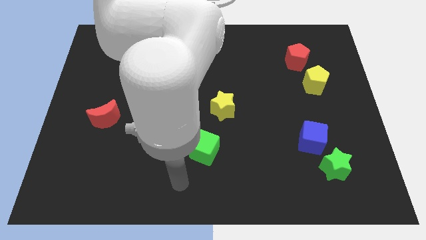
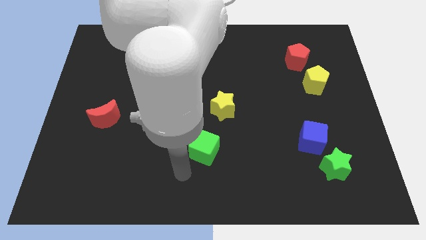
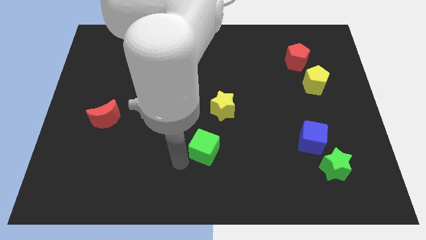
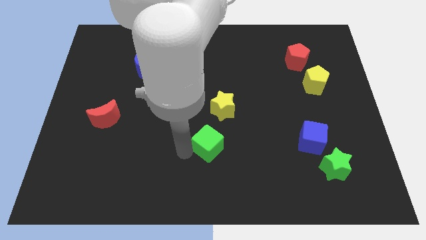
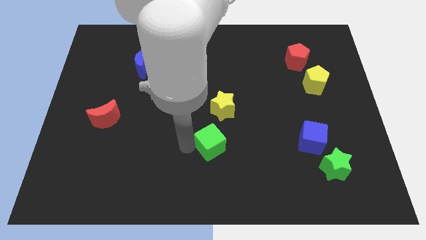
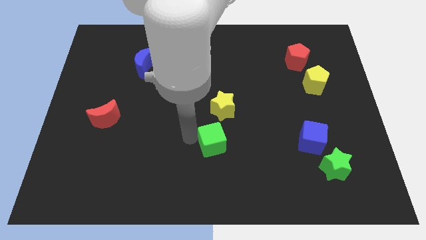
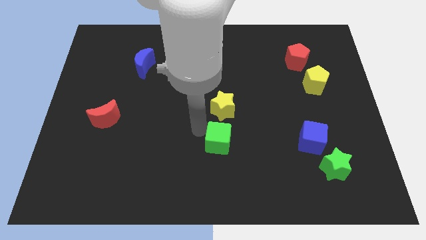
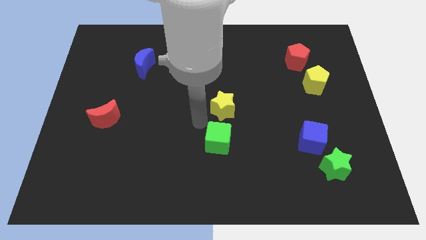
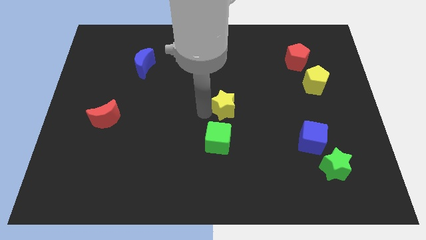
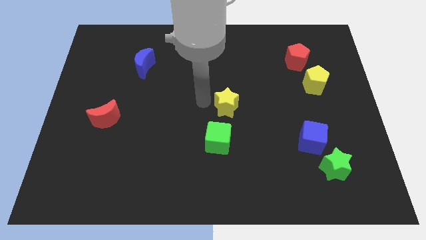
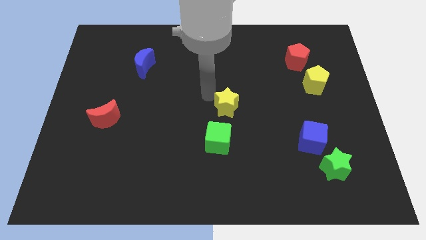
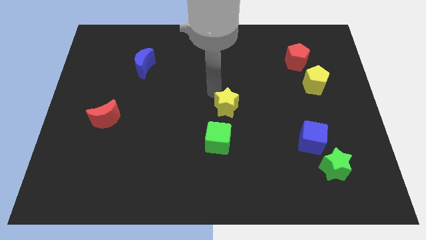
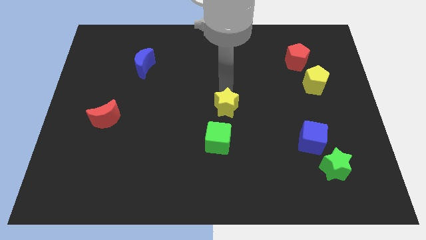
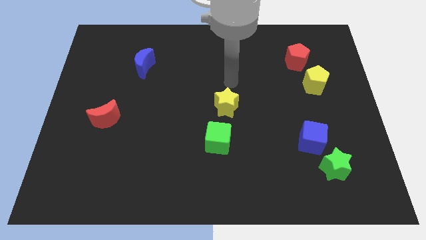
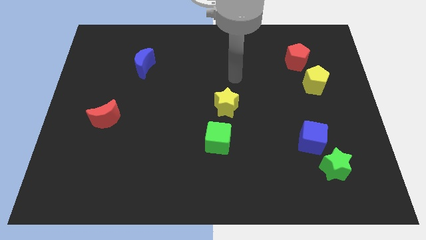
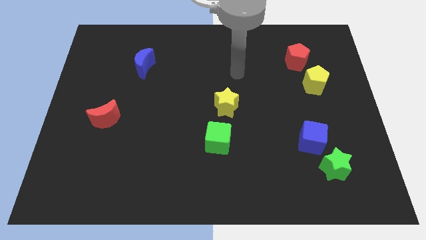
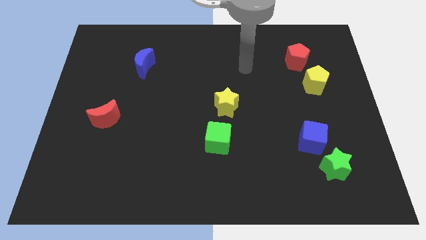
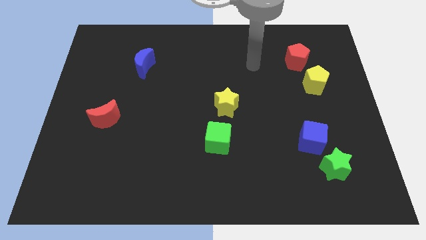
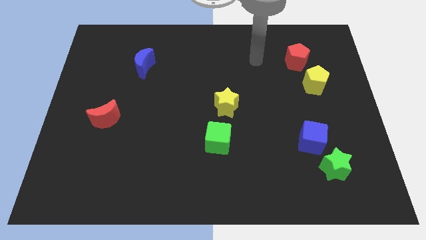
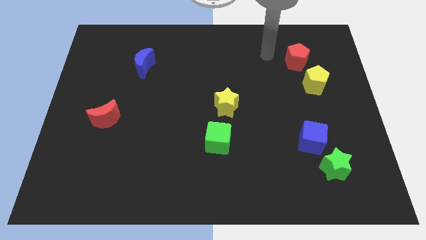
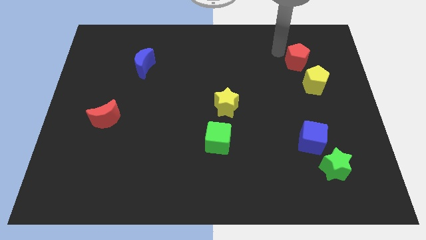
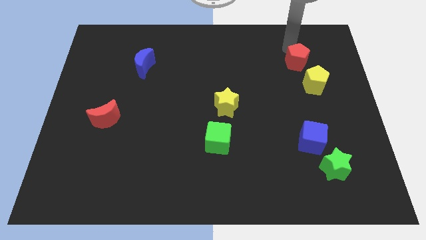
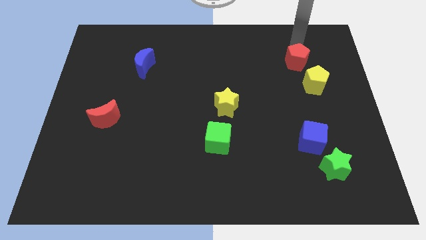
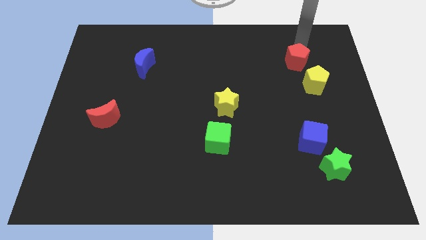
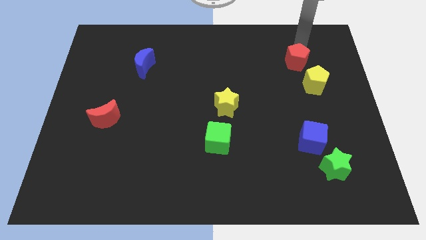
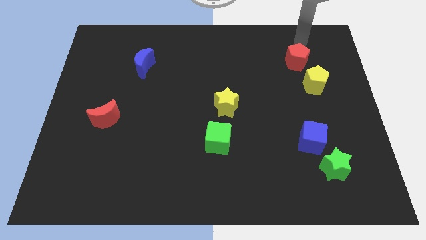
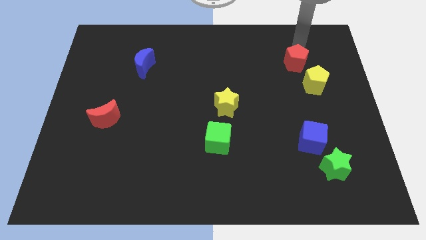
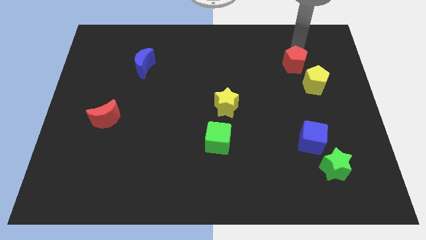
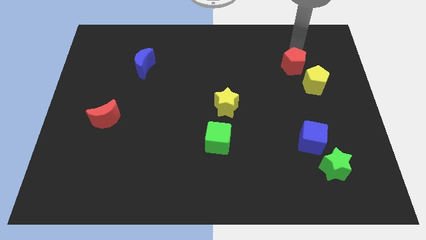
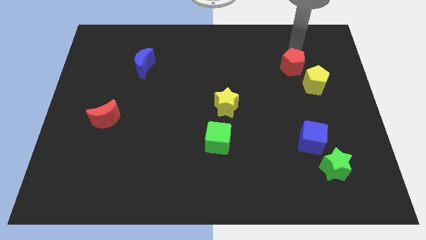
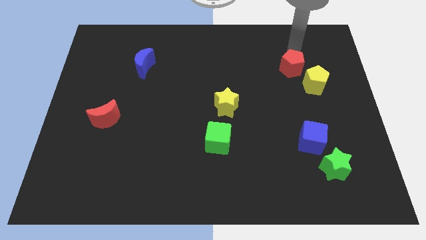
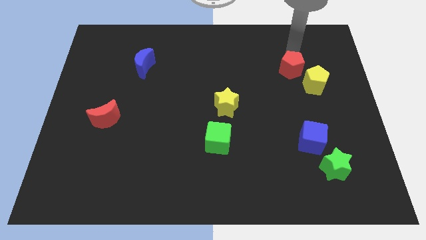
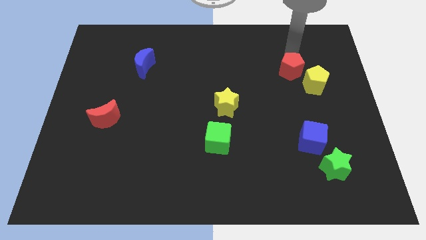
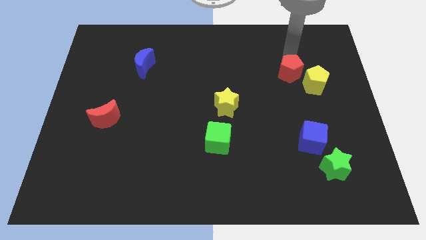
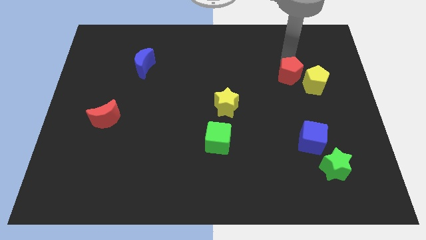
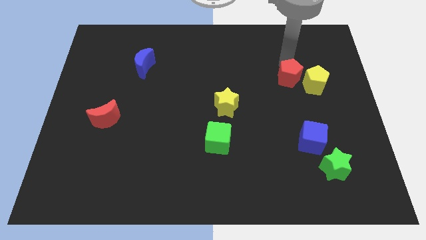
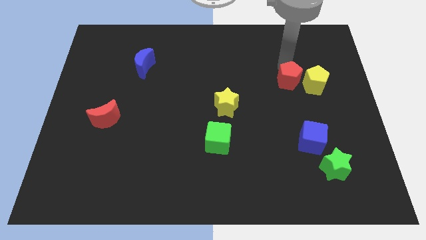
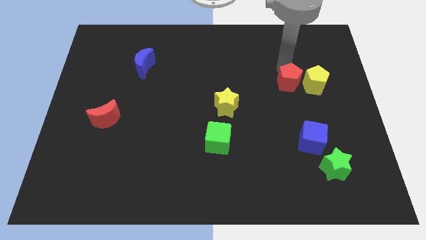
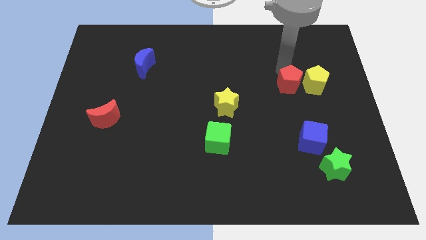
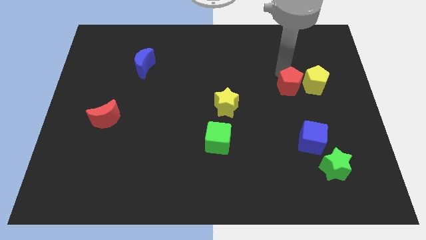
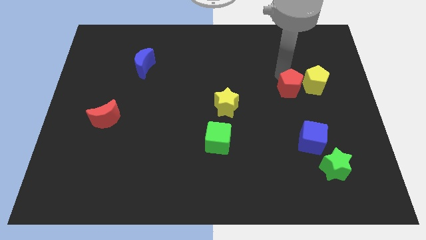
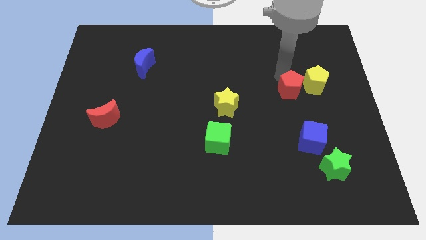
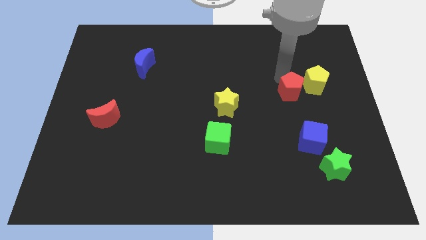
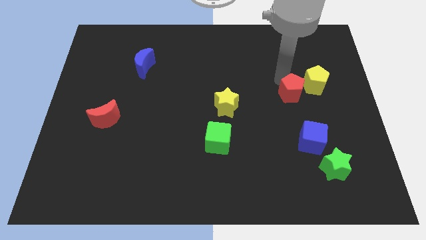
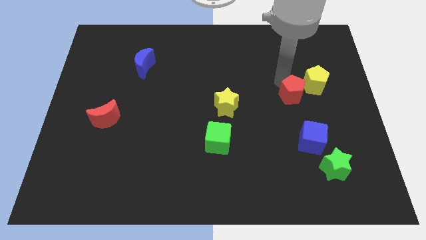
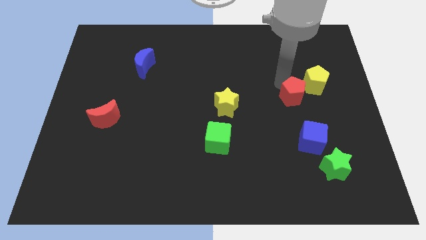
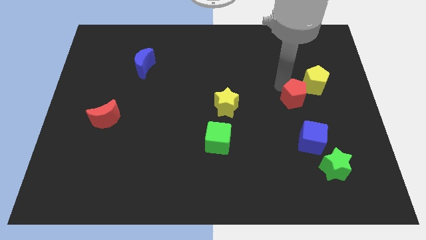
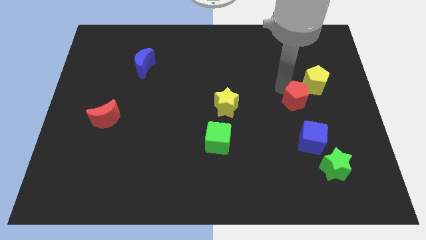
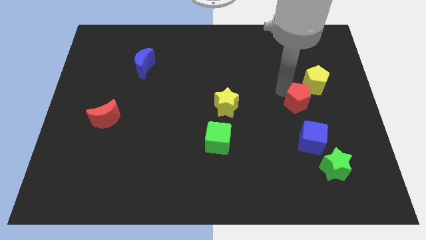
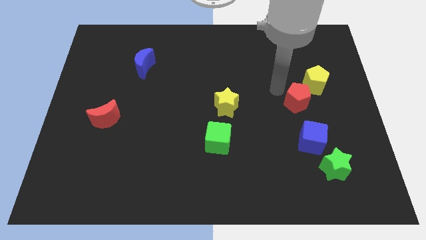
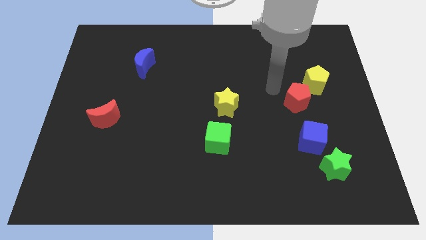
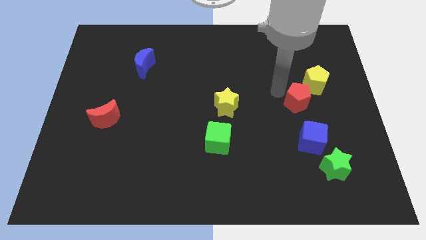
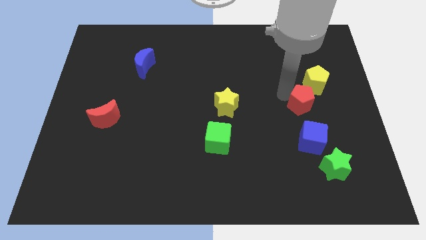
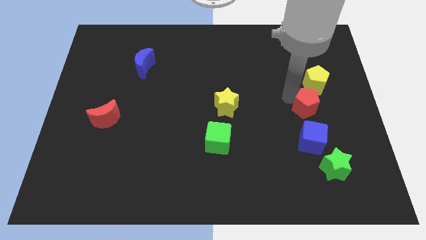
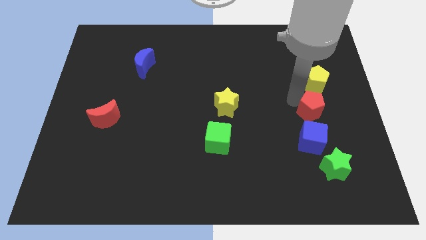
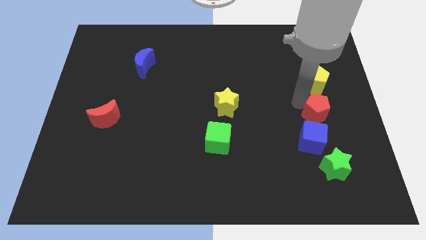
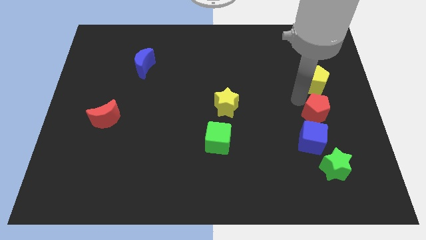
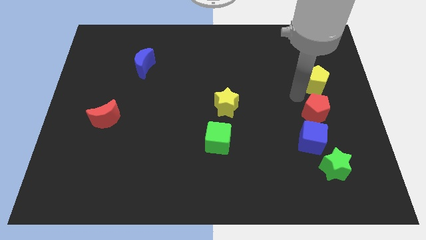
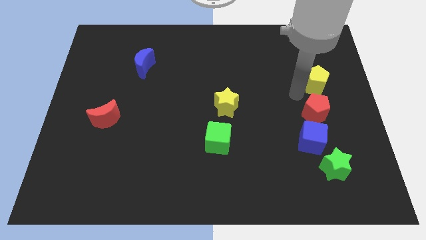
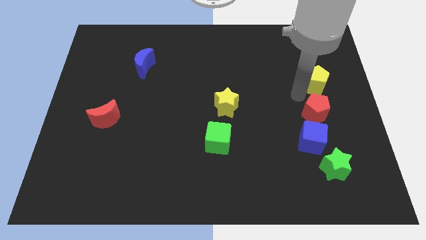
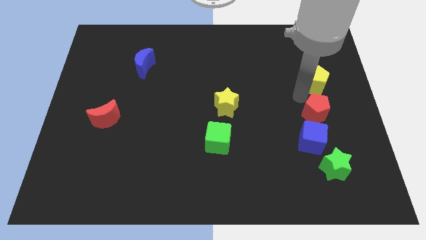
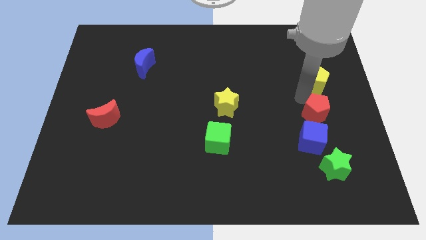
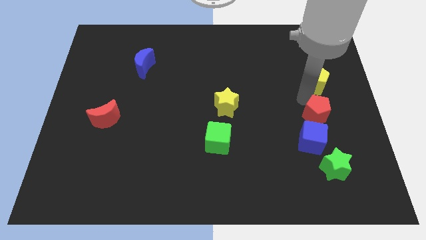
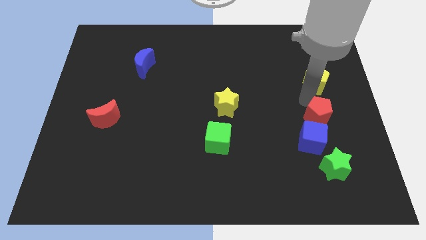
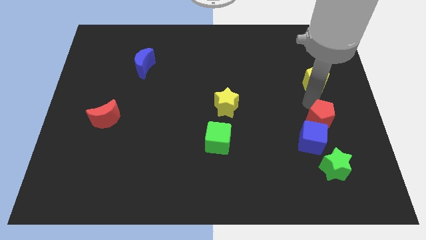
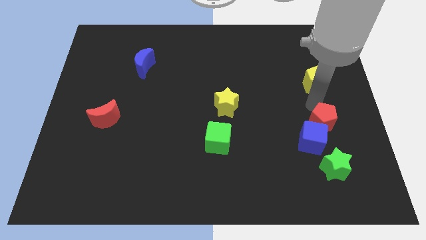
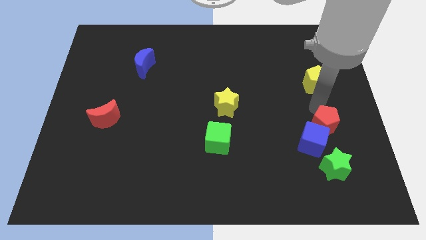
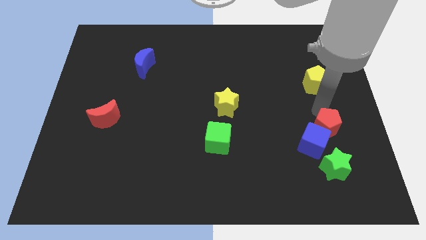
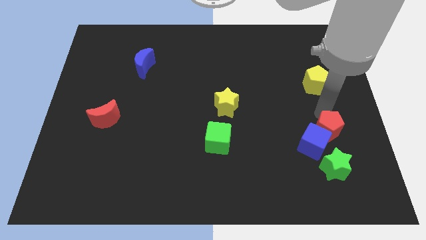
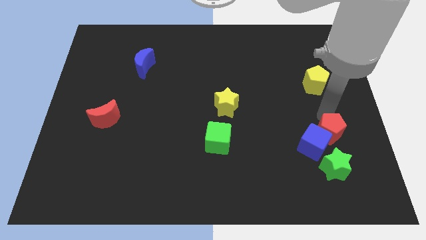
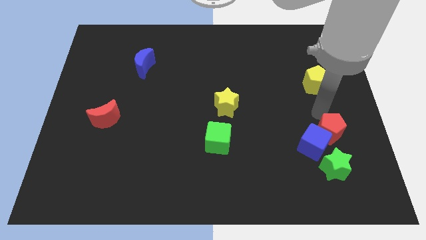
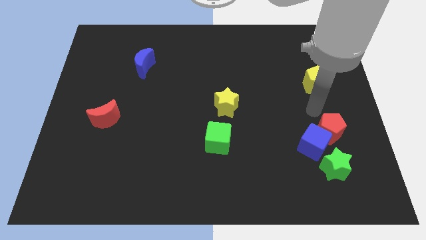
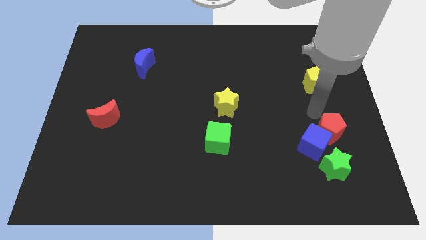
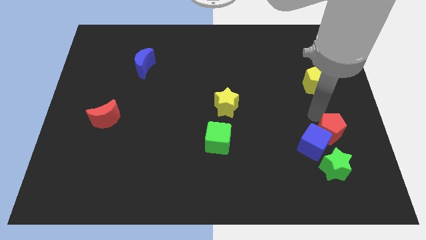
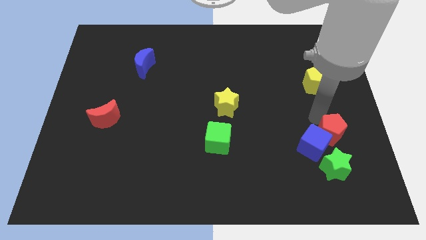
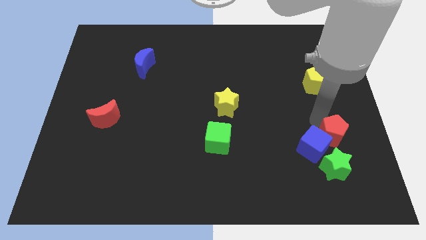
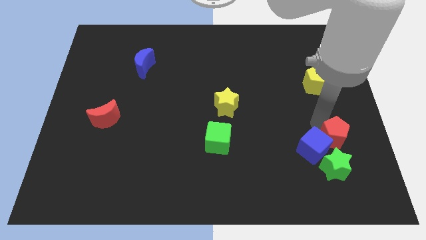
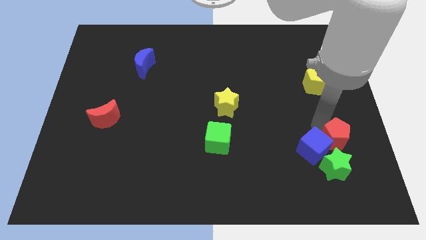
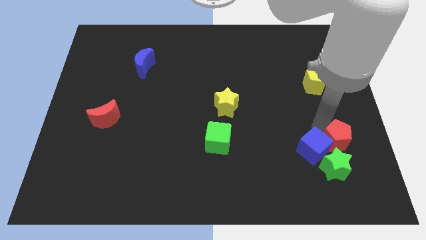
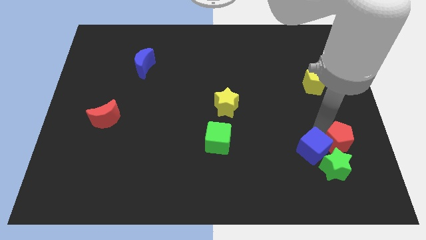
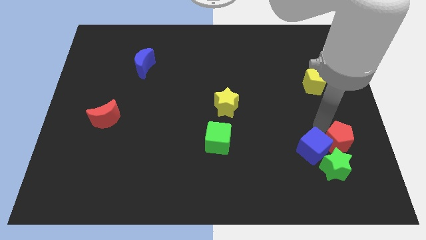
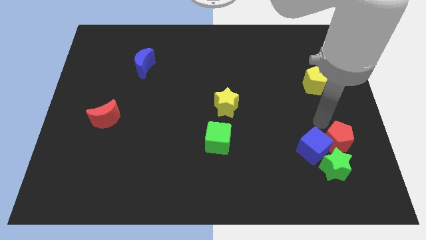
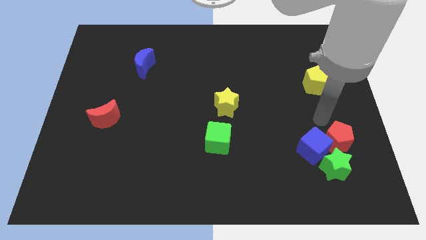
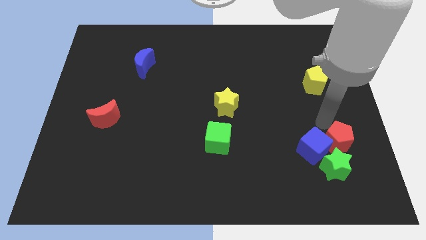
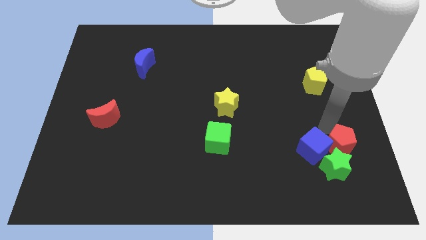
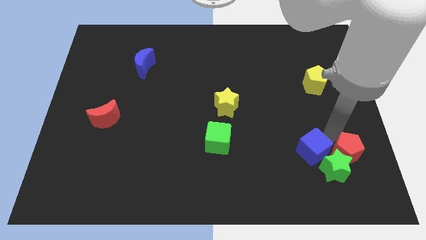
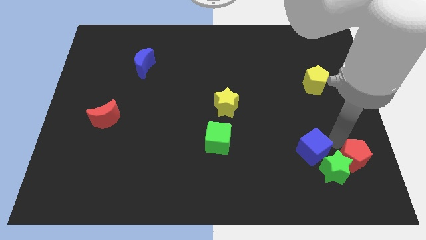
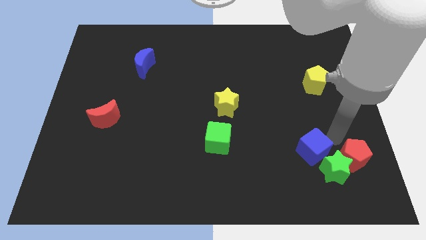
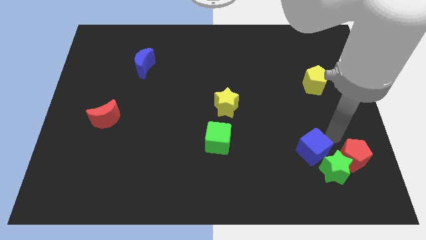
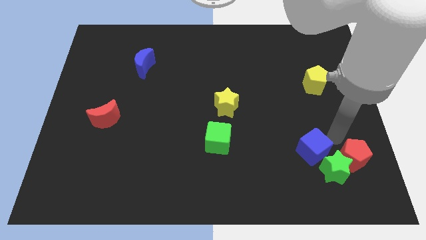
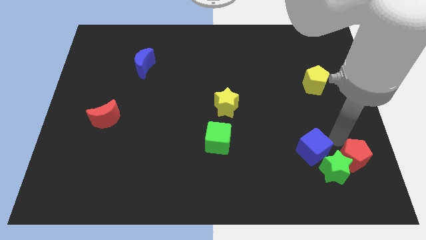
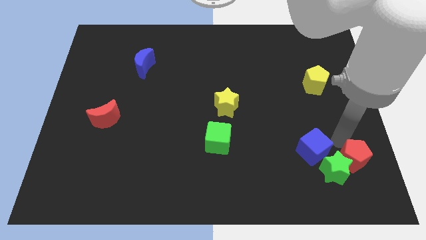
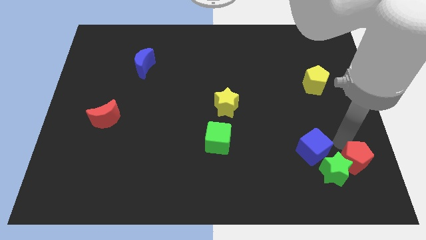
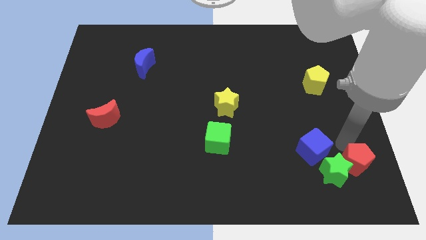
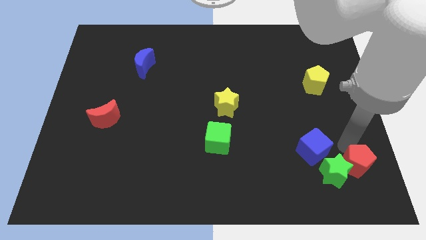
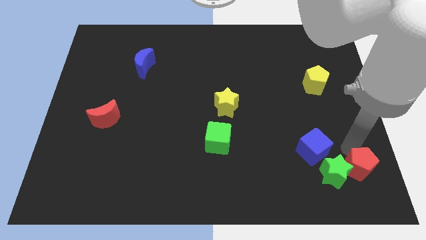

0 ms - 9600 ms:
push the red pentagon to the bottom right
